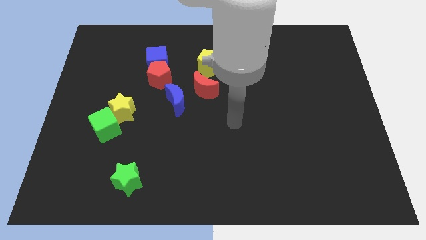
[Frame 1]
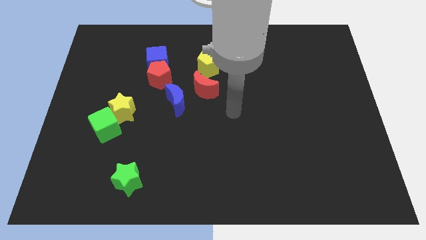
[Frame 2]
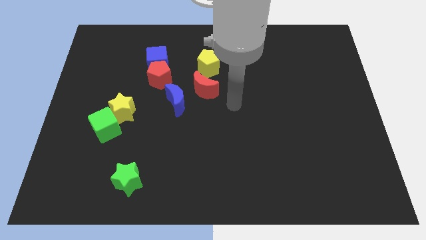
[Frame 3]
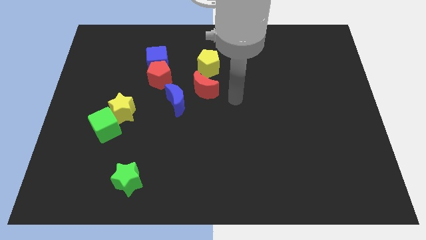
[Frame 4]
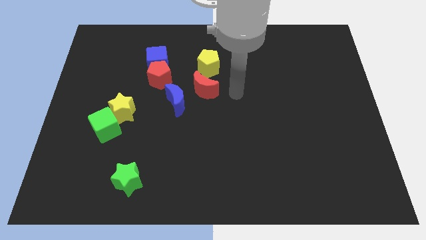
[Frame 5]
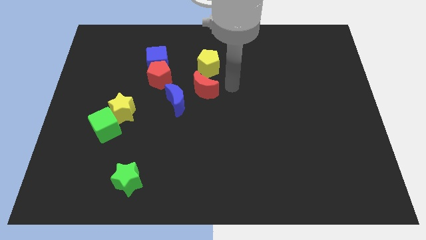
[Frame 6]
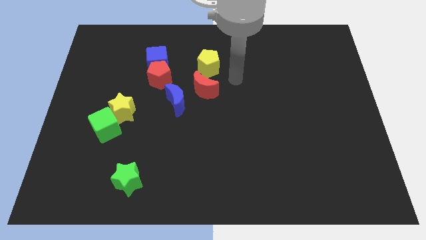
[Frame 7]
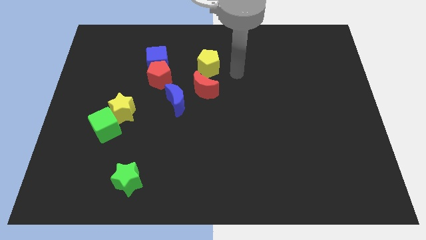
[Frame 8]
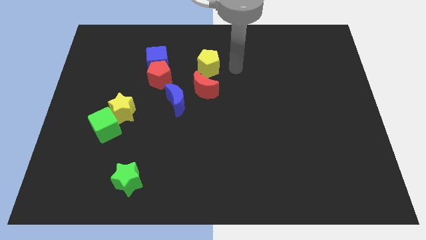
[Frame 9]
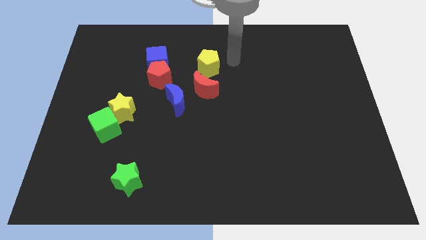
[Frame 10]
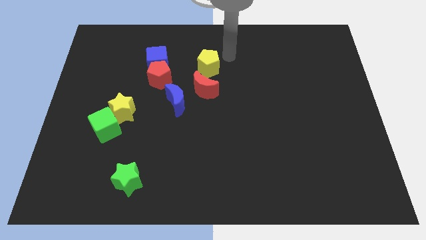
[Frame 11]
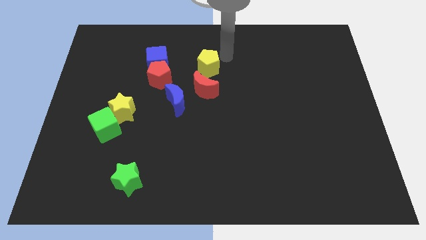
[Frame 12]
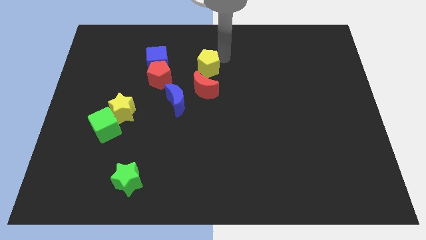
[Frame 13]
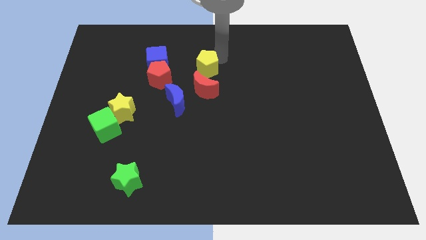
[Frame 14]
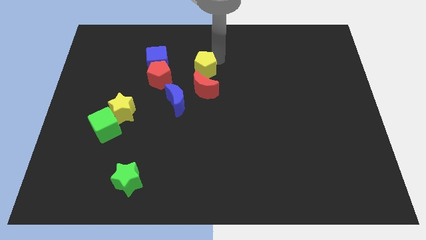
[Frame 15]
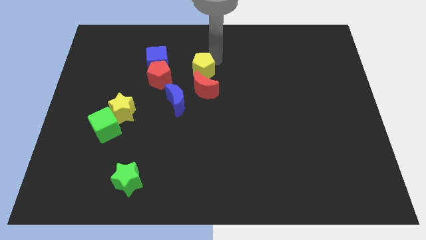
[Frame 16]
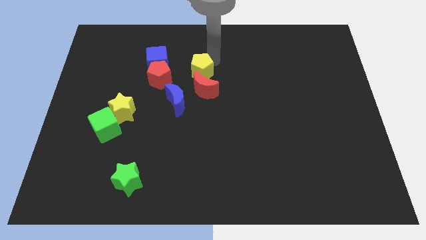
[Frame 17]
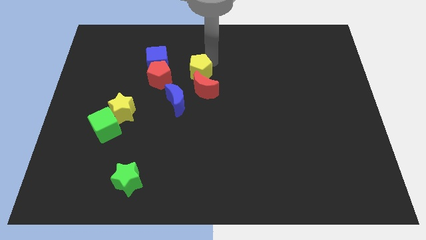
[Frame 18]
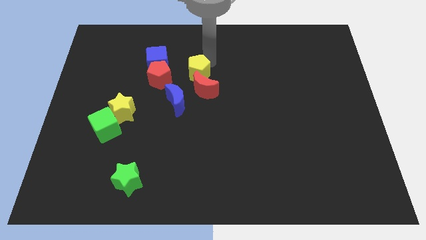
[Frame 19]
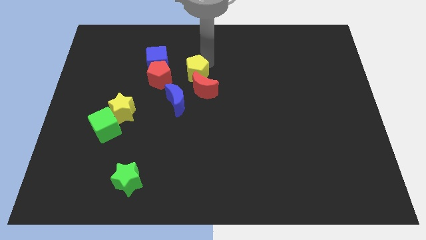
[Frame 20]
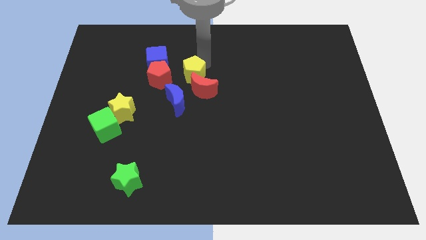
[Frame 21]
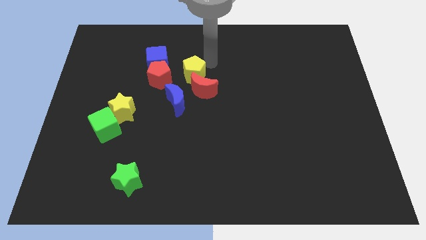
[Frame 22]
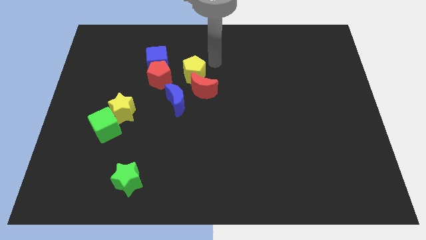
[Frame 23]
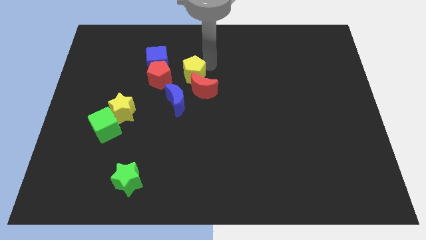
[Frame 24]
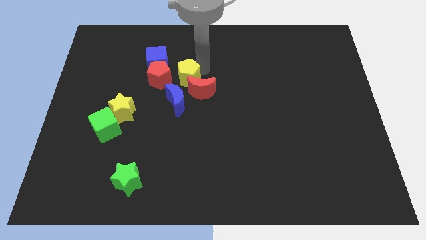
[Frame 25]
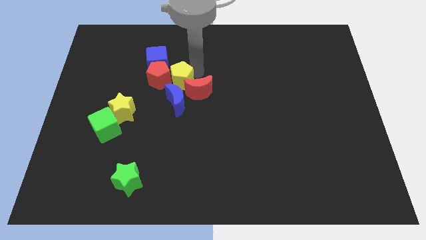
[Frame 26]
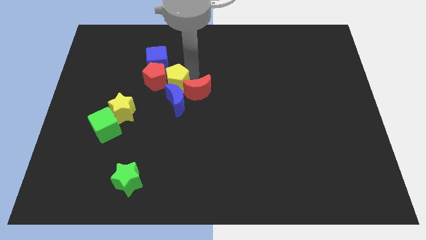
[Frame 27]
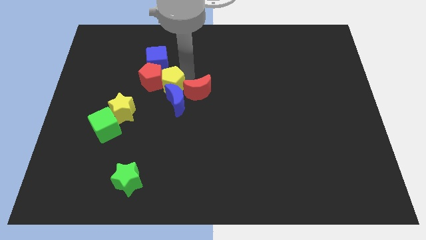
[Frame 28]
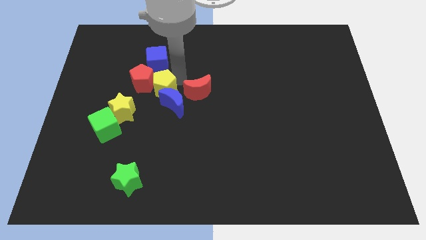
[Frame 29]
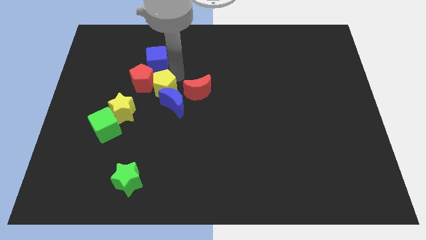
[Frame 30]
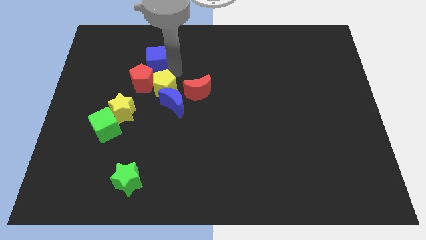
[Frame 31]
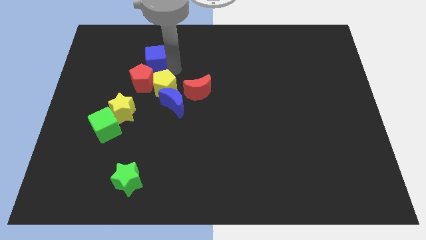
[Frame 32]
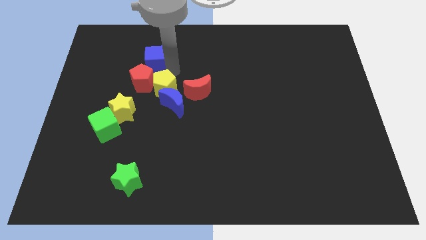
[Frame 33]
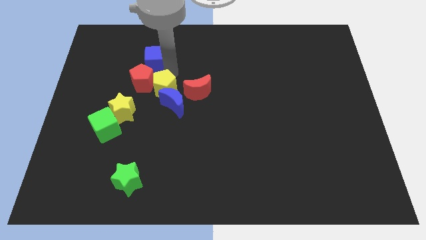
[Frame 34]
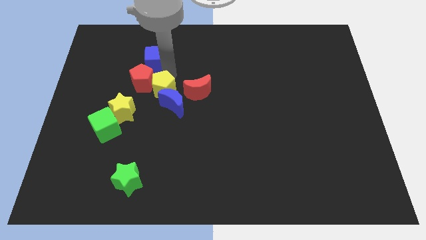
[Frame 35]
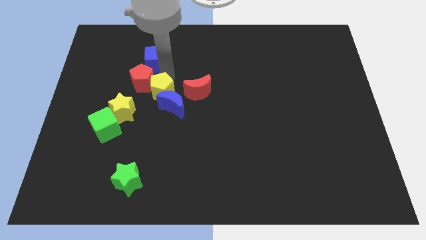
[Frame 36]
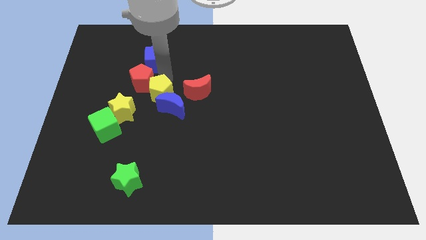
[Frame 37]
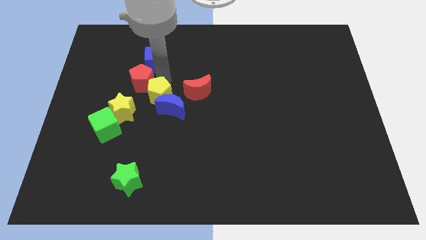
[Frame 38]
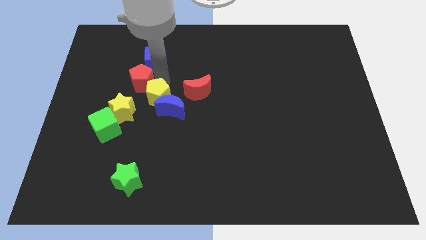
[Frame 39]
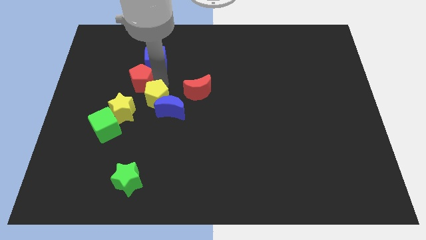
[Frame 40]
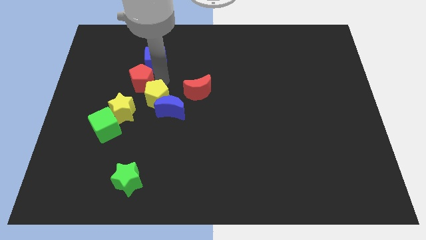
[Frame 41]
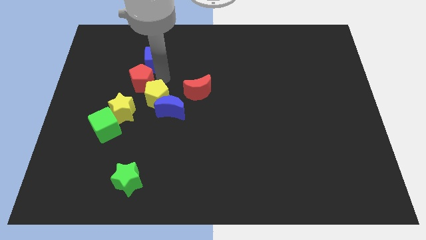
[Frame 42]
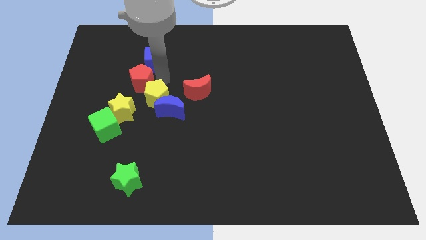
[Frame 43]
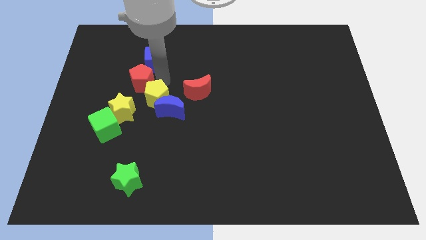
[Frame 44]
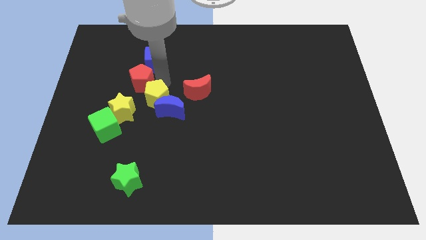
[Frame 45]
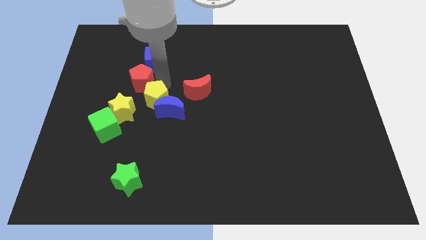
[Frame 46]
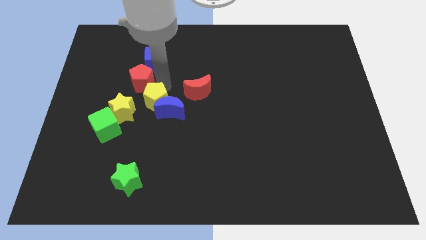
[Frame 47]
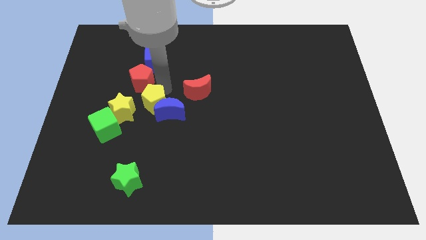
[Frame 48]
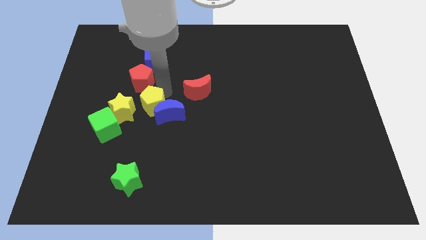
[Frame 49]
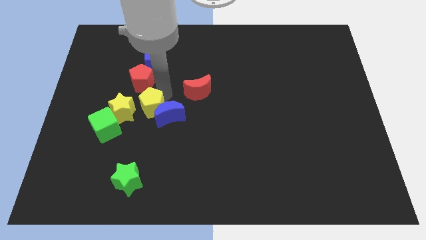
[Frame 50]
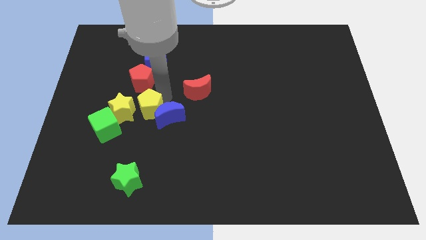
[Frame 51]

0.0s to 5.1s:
put the yellow pentagon to the bottom right side of the yellow star
